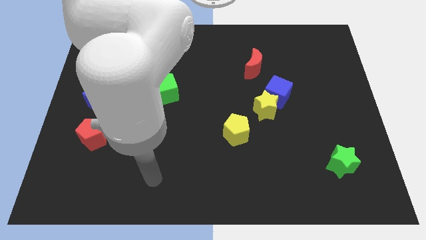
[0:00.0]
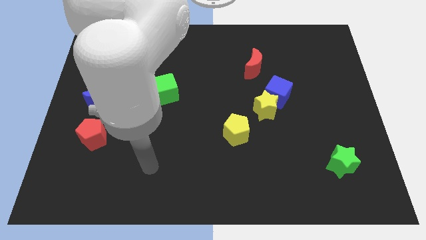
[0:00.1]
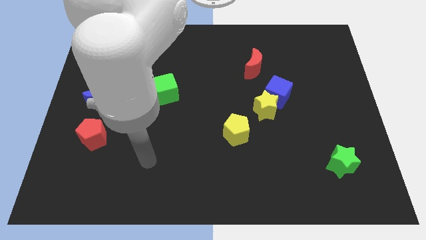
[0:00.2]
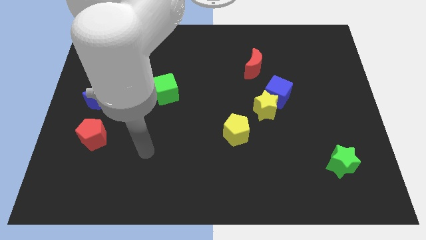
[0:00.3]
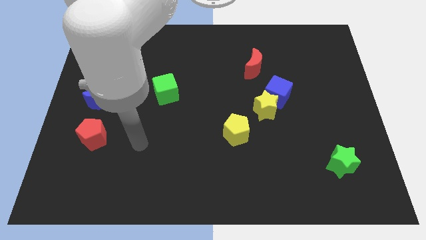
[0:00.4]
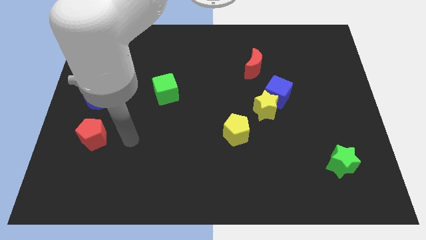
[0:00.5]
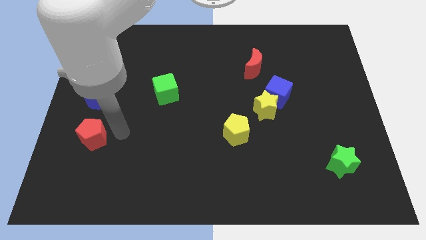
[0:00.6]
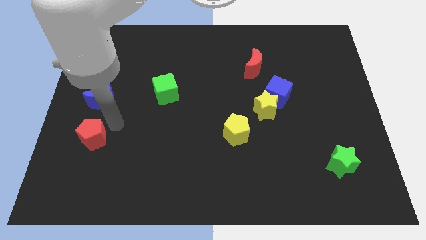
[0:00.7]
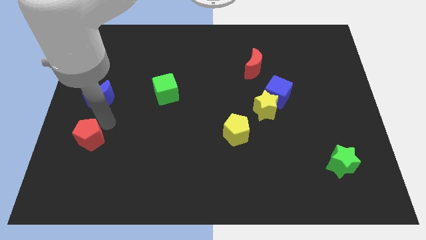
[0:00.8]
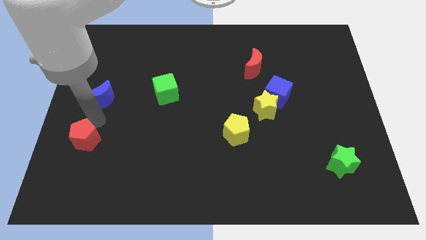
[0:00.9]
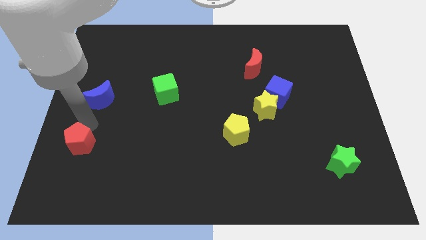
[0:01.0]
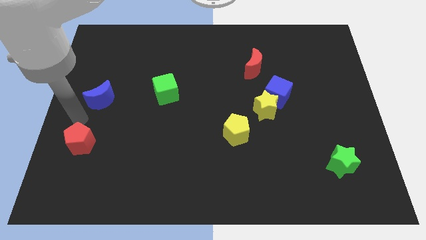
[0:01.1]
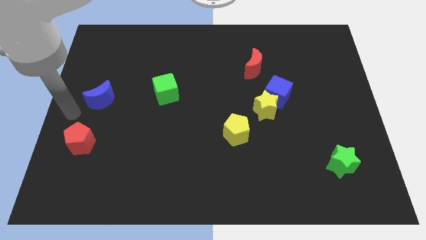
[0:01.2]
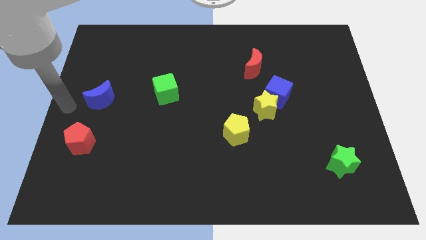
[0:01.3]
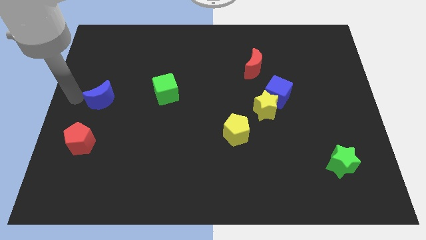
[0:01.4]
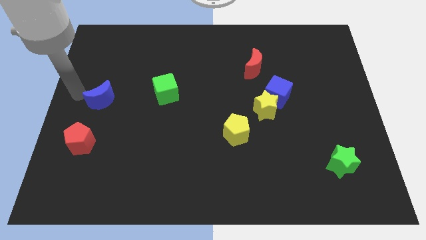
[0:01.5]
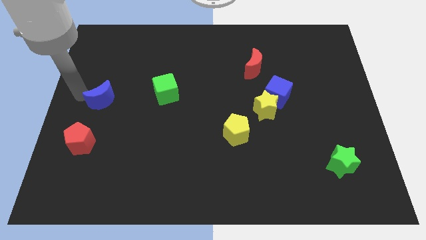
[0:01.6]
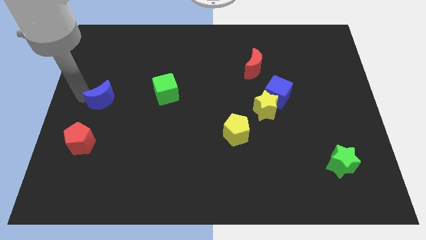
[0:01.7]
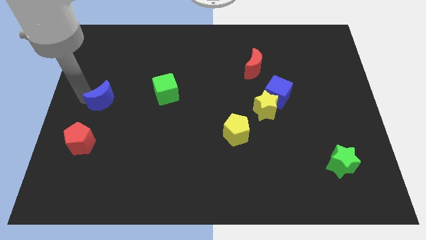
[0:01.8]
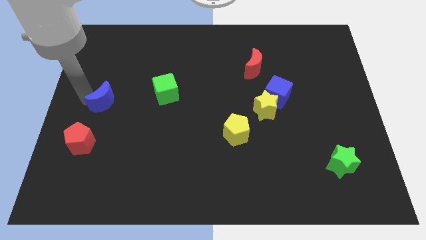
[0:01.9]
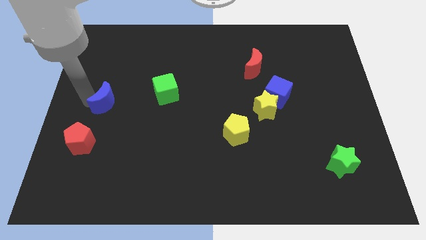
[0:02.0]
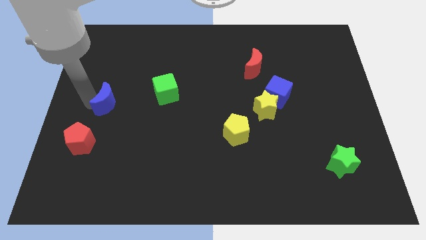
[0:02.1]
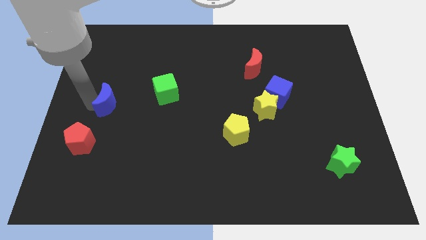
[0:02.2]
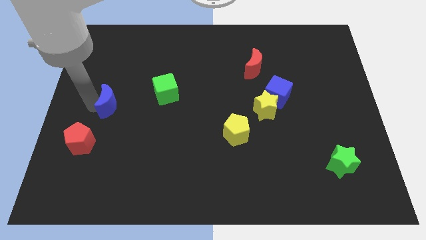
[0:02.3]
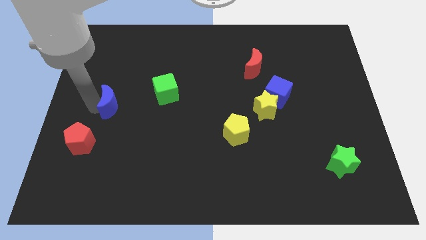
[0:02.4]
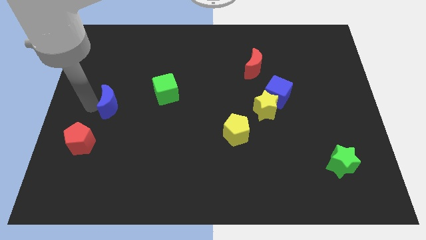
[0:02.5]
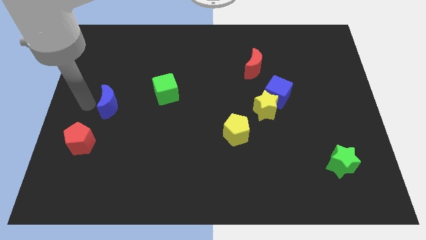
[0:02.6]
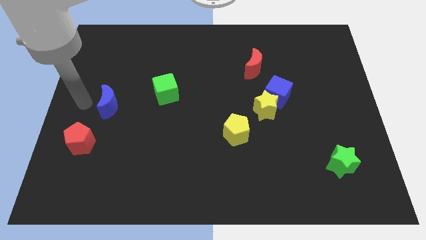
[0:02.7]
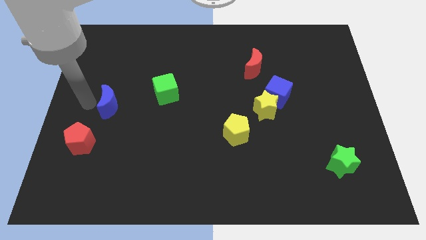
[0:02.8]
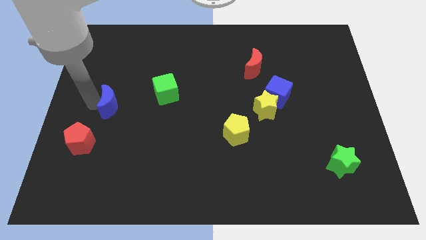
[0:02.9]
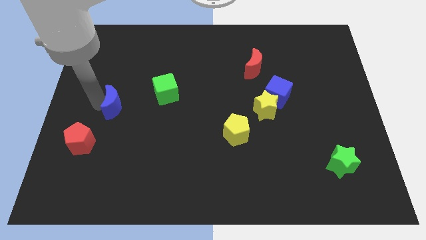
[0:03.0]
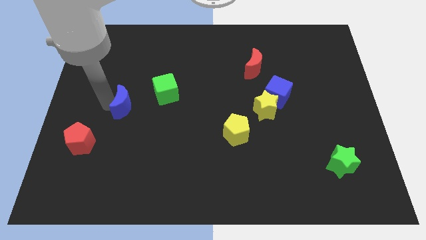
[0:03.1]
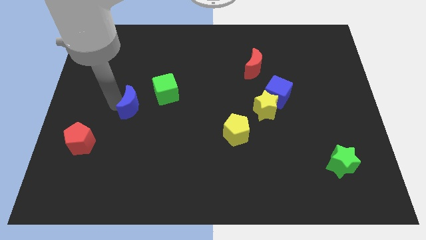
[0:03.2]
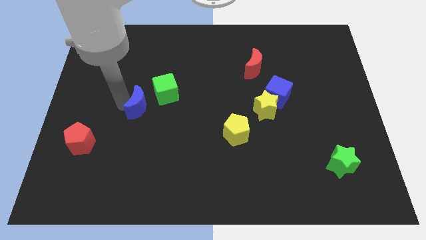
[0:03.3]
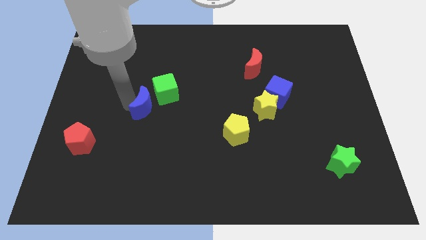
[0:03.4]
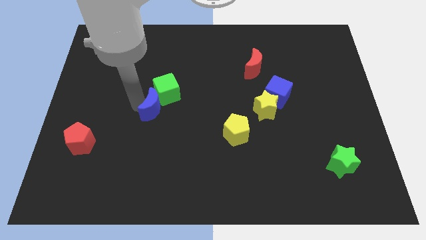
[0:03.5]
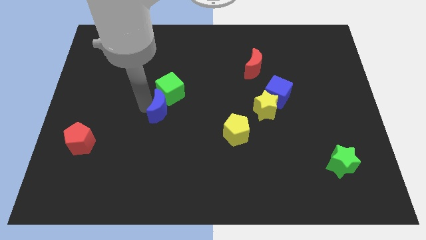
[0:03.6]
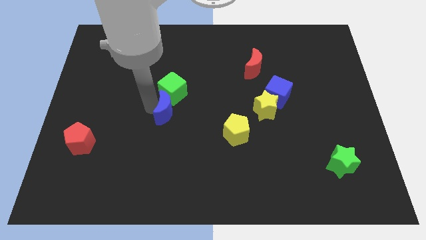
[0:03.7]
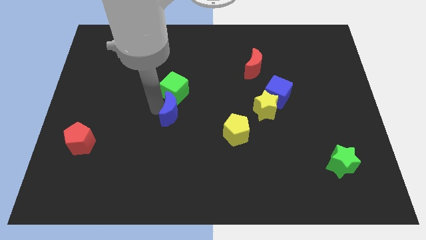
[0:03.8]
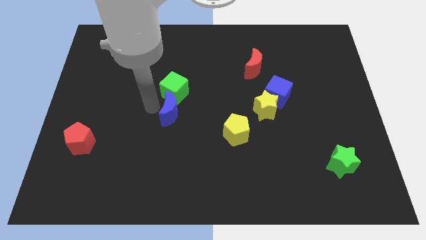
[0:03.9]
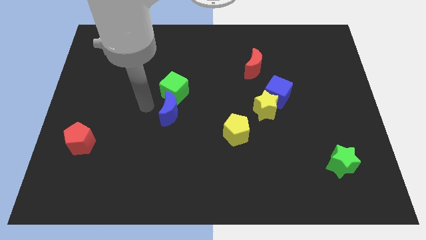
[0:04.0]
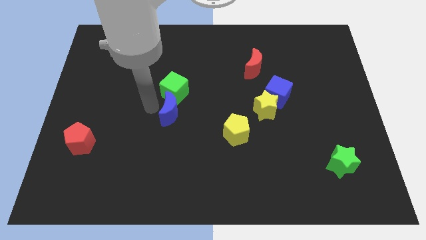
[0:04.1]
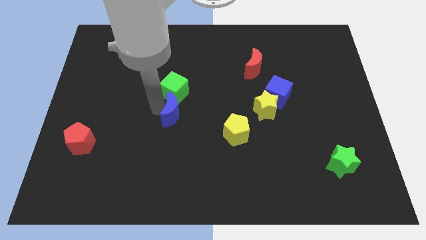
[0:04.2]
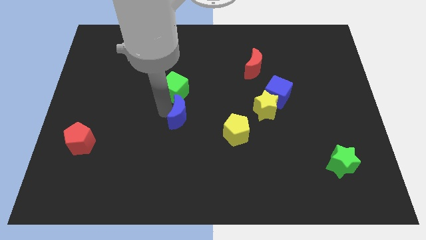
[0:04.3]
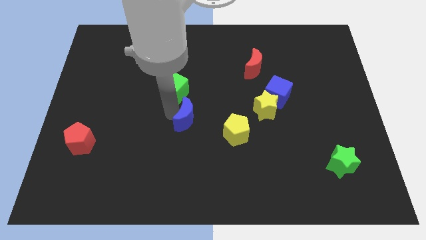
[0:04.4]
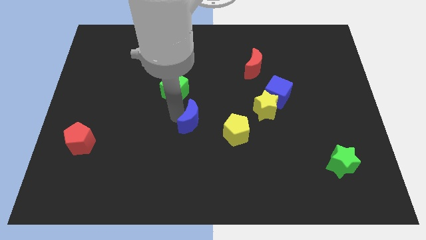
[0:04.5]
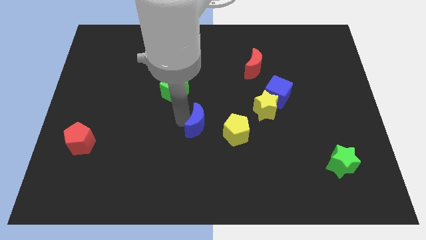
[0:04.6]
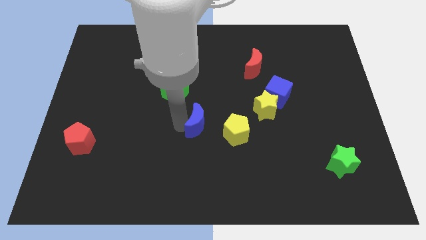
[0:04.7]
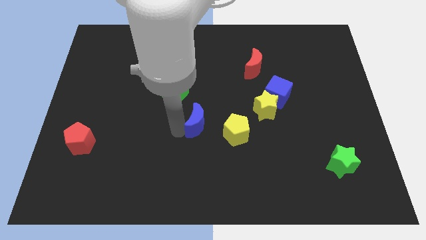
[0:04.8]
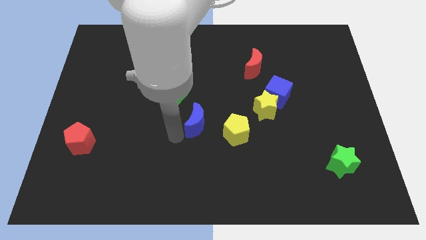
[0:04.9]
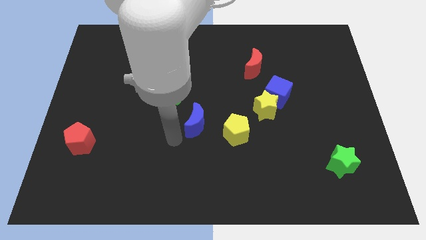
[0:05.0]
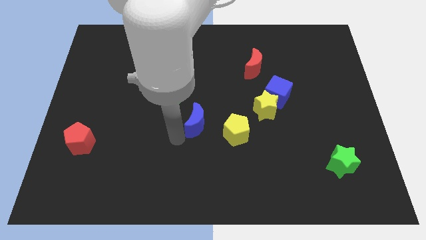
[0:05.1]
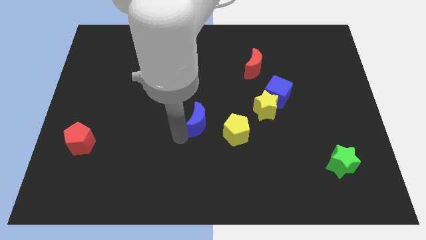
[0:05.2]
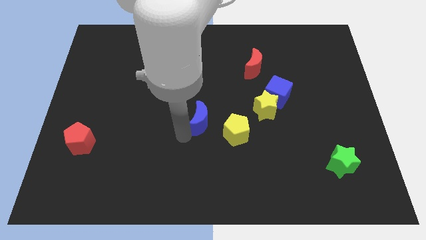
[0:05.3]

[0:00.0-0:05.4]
push the blue moon just left of the yellow star

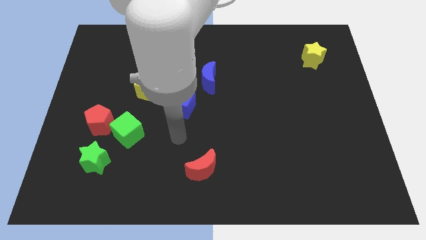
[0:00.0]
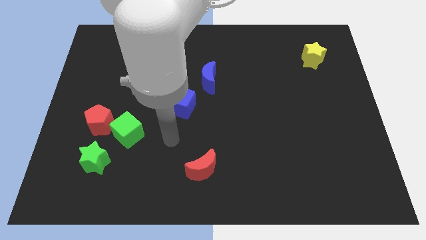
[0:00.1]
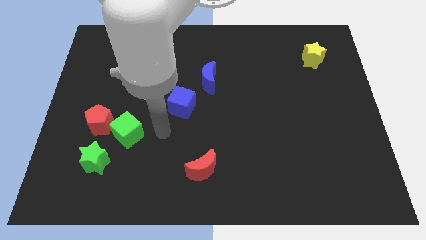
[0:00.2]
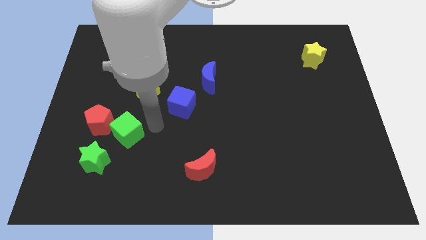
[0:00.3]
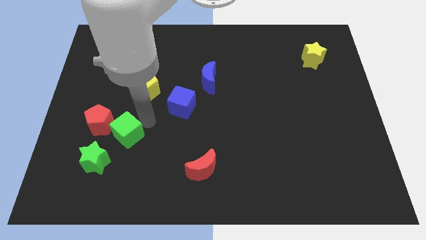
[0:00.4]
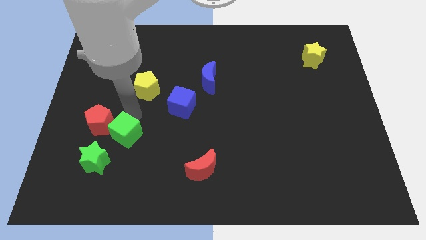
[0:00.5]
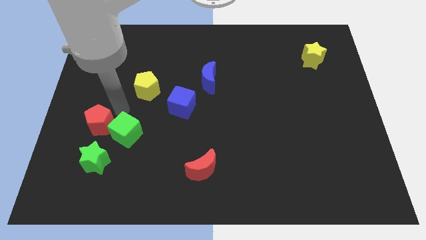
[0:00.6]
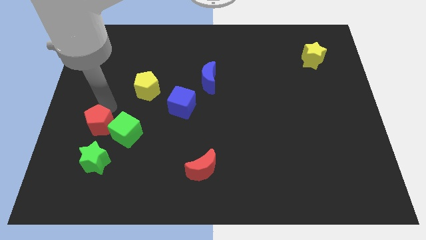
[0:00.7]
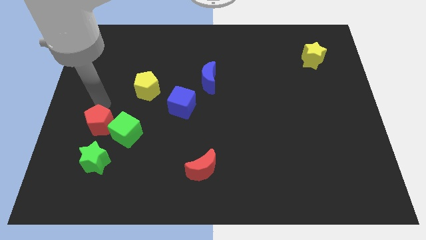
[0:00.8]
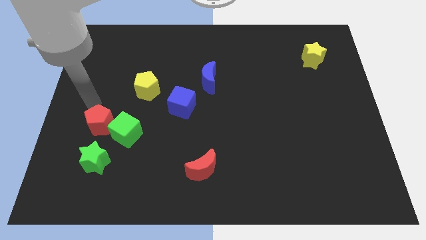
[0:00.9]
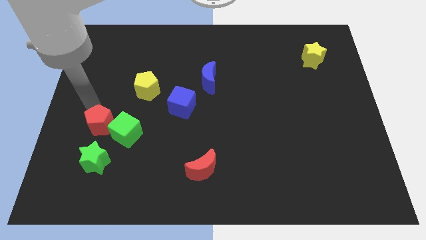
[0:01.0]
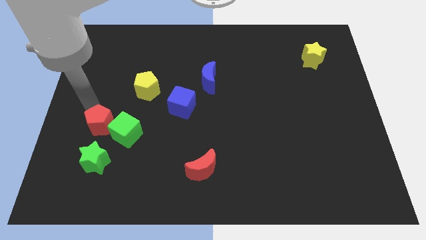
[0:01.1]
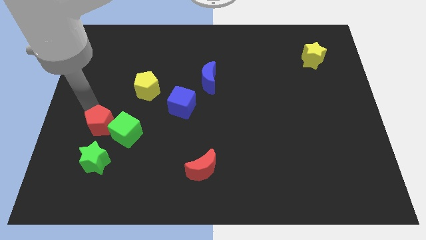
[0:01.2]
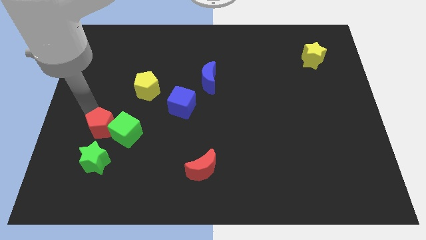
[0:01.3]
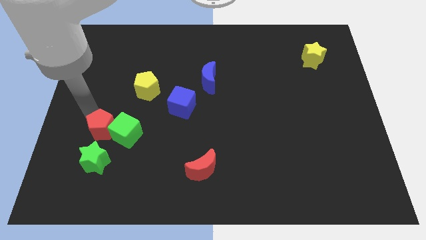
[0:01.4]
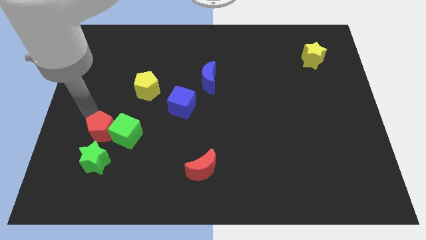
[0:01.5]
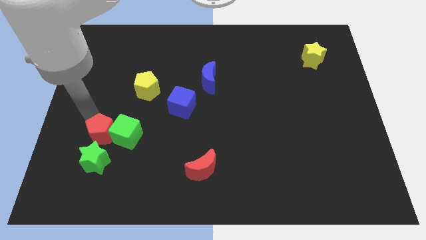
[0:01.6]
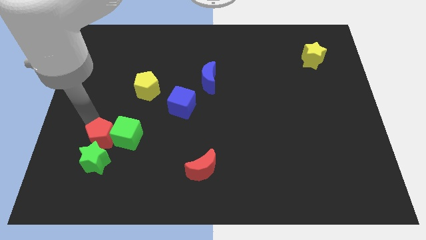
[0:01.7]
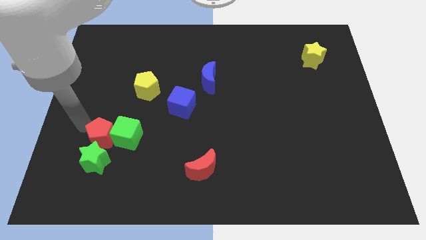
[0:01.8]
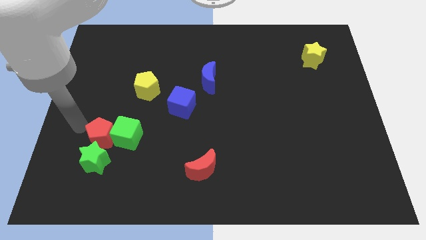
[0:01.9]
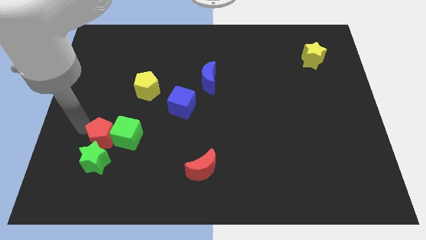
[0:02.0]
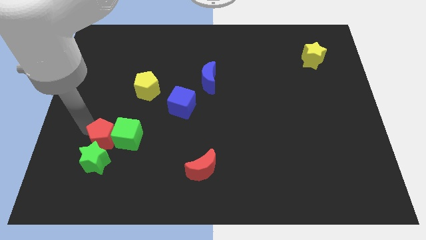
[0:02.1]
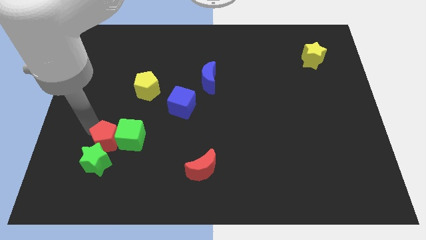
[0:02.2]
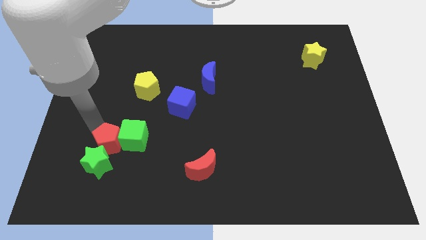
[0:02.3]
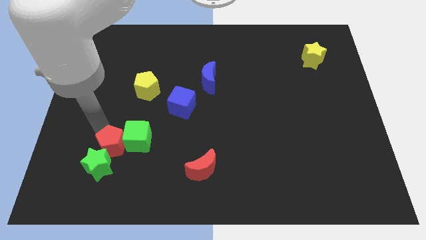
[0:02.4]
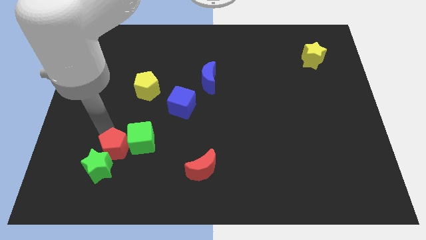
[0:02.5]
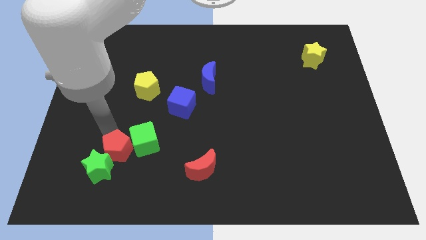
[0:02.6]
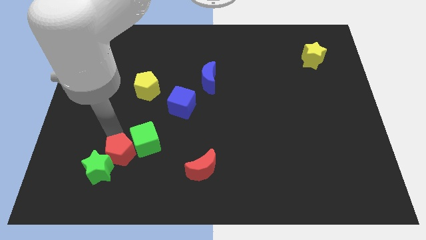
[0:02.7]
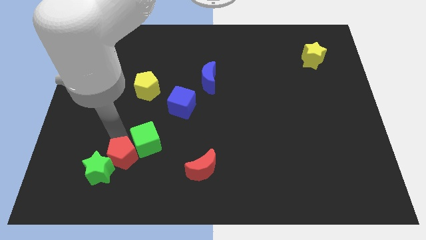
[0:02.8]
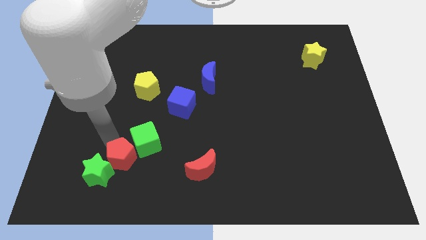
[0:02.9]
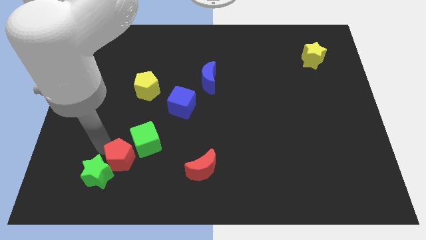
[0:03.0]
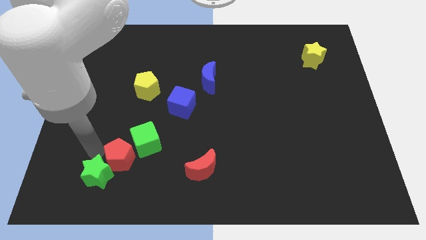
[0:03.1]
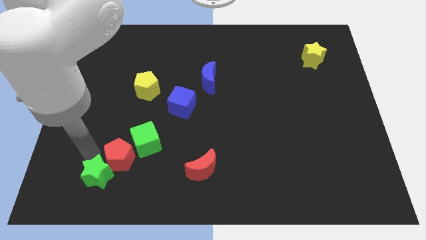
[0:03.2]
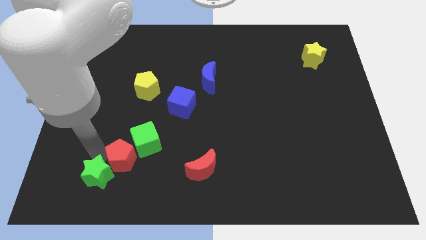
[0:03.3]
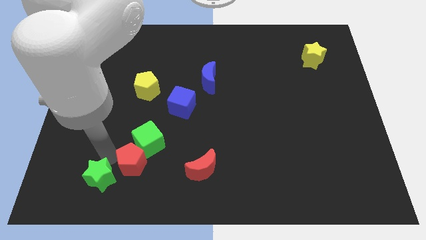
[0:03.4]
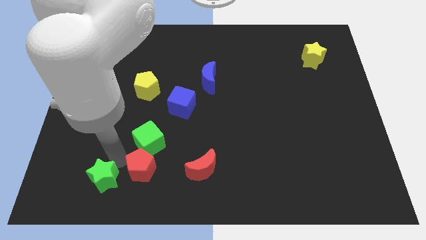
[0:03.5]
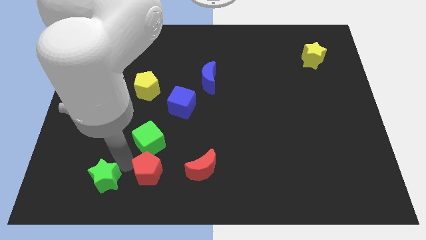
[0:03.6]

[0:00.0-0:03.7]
put the red pentagon diagonally down and to the right of the green cube
